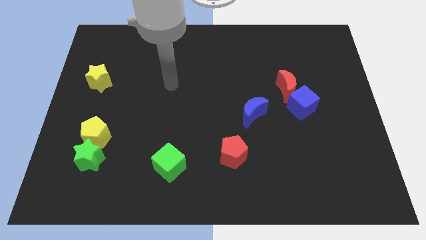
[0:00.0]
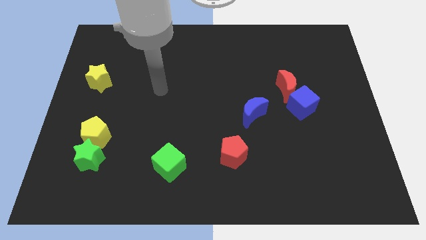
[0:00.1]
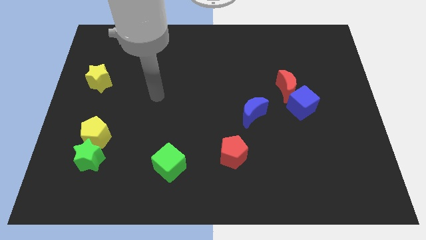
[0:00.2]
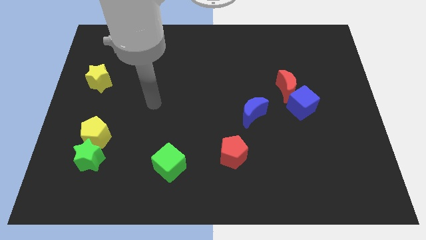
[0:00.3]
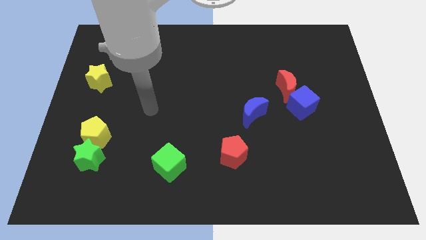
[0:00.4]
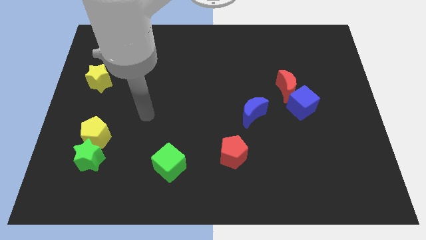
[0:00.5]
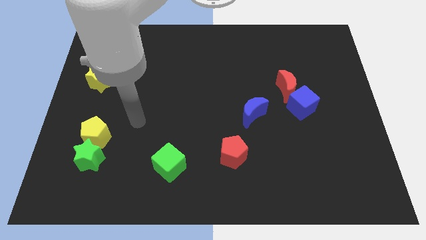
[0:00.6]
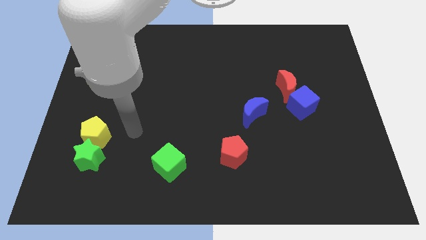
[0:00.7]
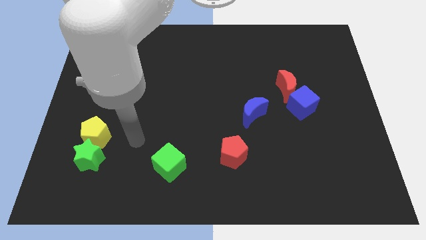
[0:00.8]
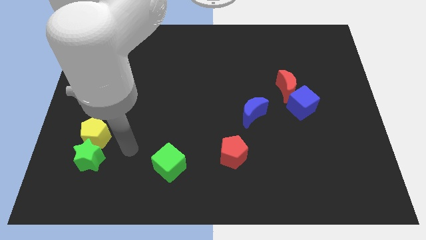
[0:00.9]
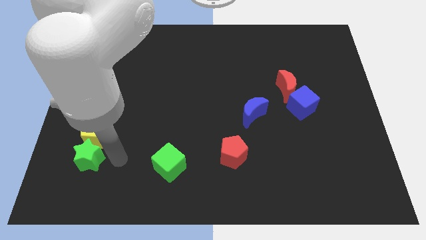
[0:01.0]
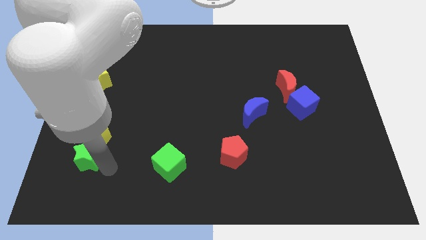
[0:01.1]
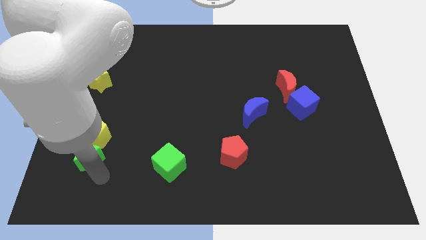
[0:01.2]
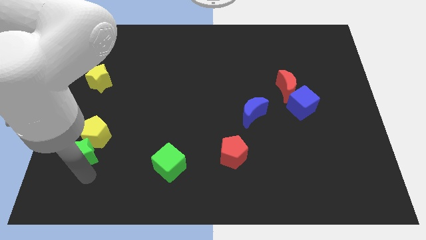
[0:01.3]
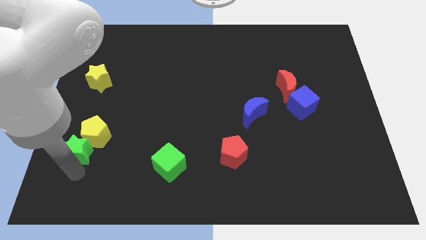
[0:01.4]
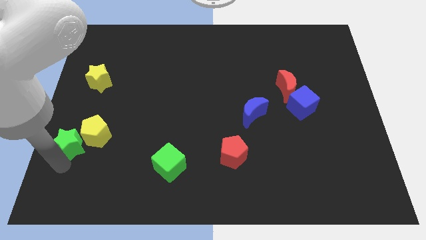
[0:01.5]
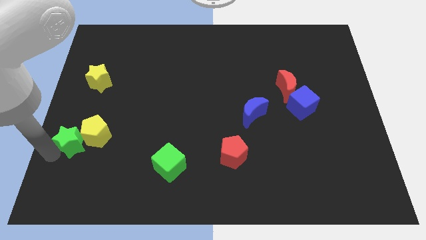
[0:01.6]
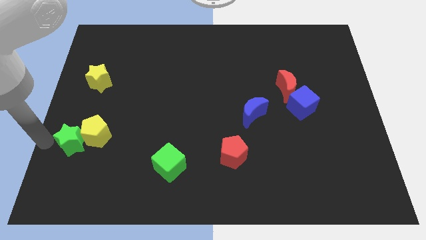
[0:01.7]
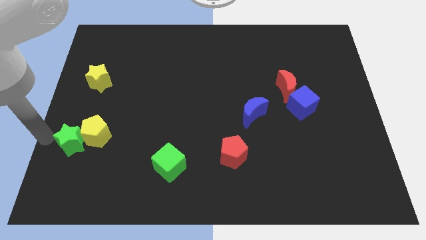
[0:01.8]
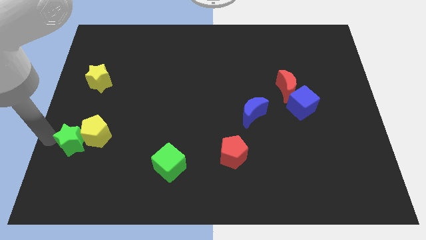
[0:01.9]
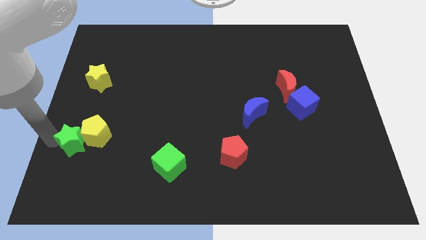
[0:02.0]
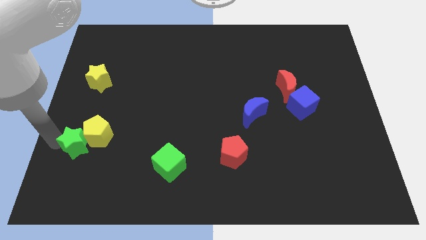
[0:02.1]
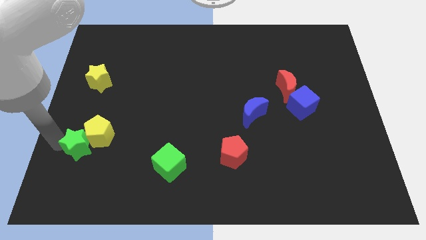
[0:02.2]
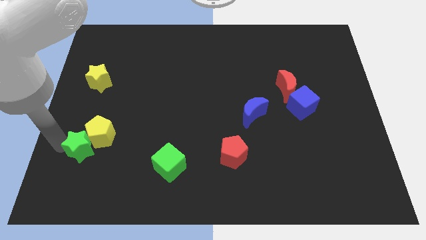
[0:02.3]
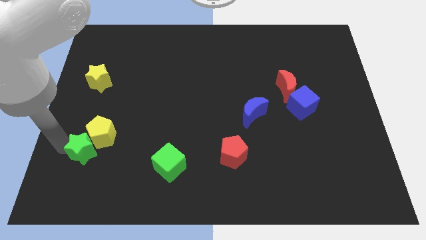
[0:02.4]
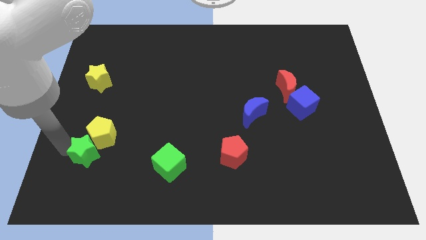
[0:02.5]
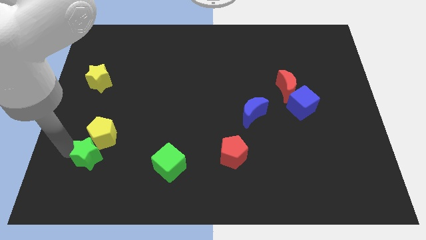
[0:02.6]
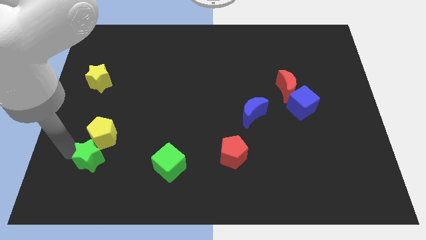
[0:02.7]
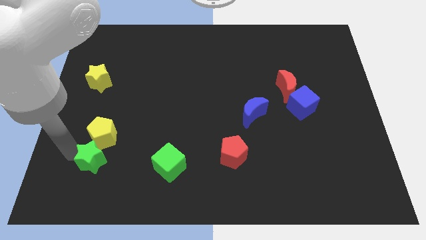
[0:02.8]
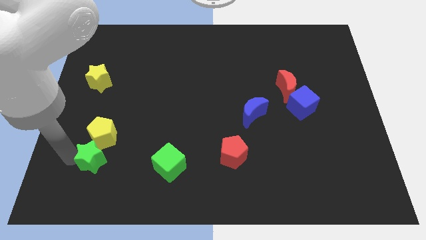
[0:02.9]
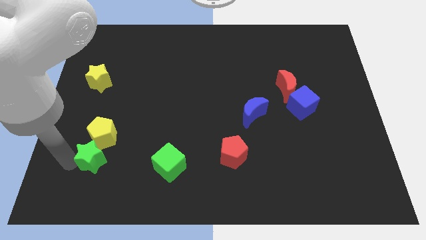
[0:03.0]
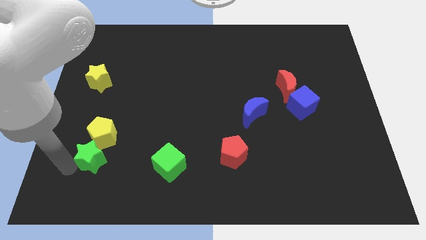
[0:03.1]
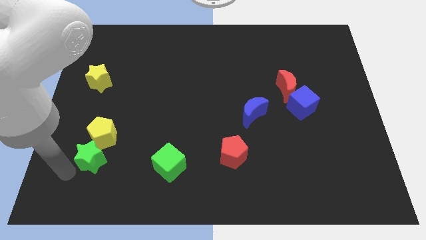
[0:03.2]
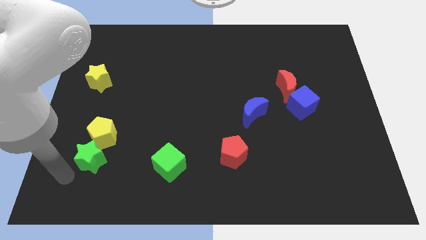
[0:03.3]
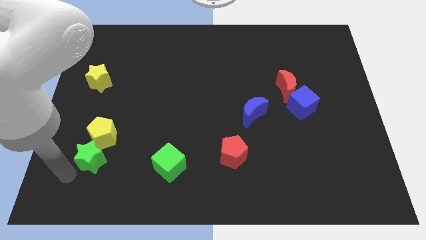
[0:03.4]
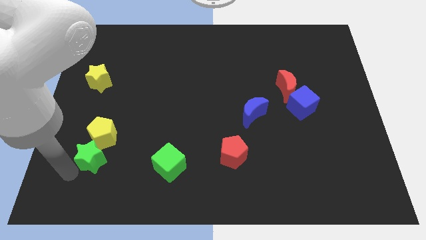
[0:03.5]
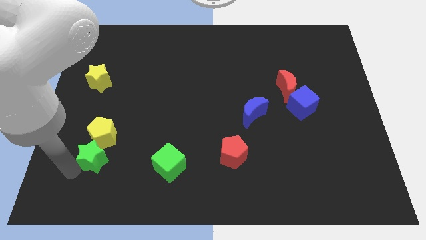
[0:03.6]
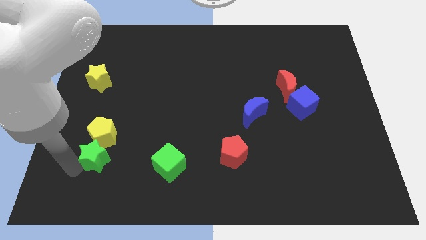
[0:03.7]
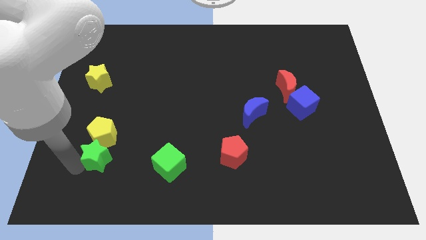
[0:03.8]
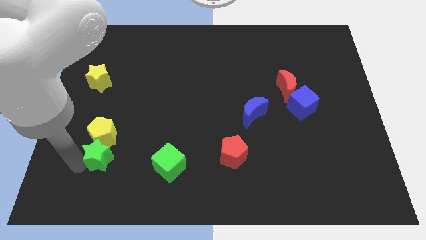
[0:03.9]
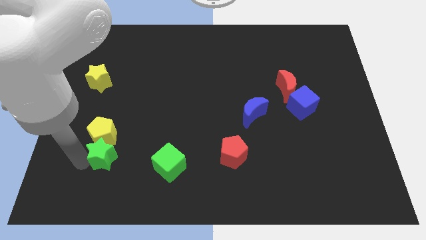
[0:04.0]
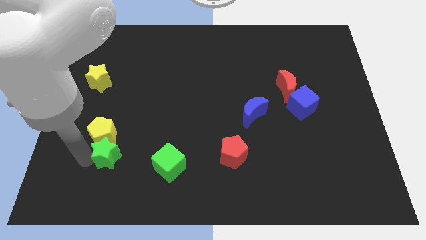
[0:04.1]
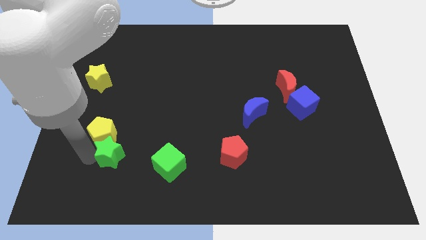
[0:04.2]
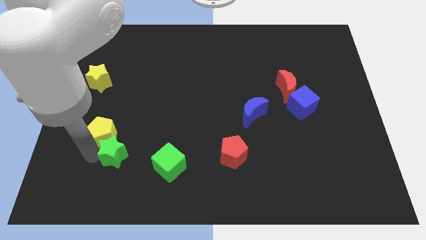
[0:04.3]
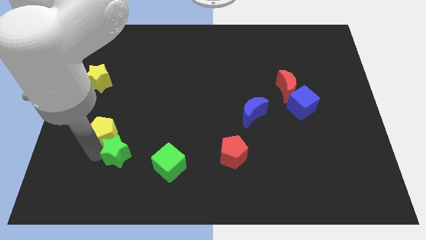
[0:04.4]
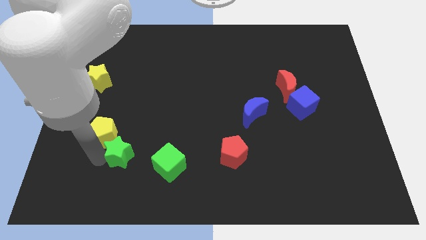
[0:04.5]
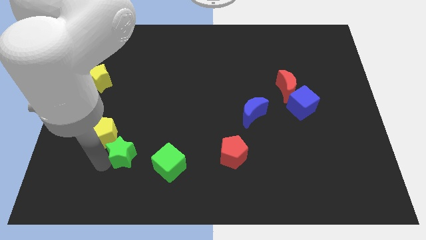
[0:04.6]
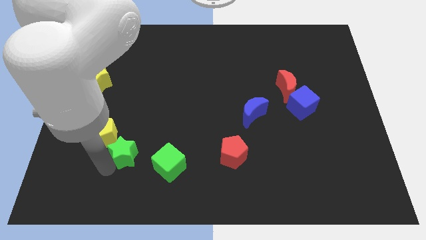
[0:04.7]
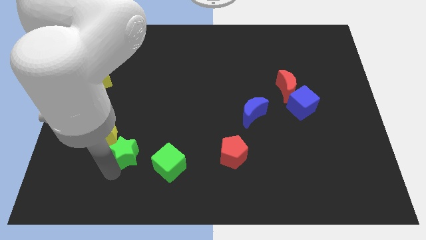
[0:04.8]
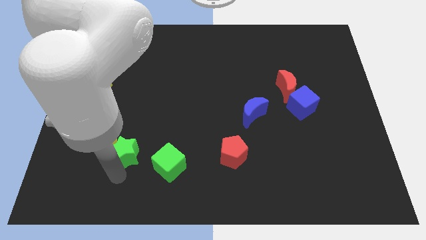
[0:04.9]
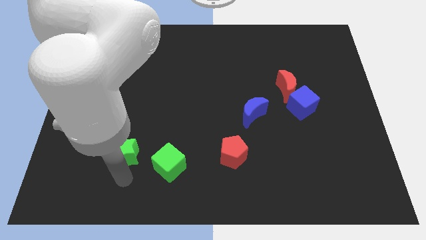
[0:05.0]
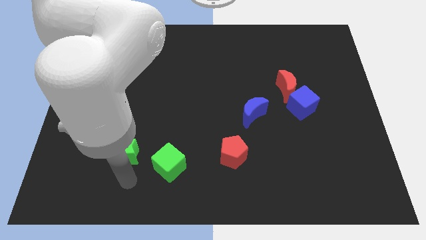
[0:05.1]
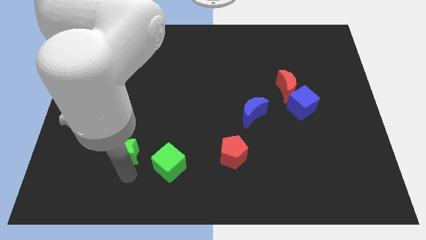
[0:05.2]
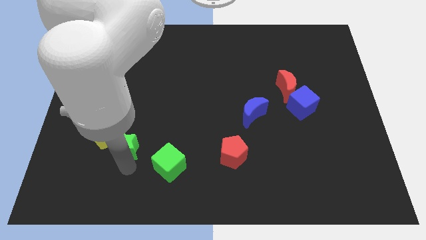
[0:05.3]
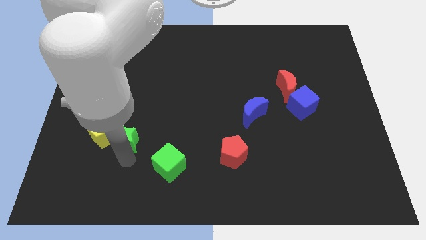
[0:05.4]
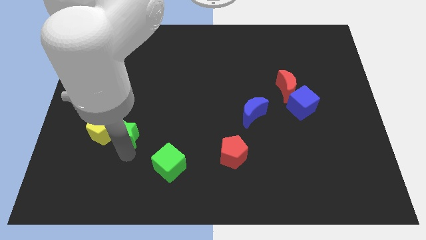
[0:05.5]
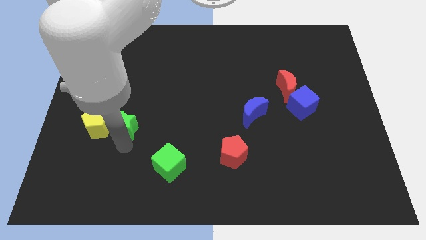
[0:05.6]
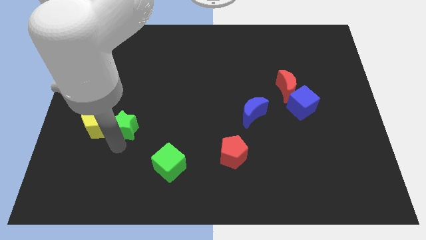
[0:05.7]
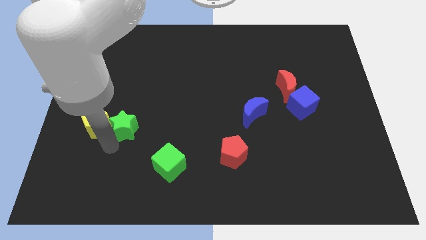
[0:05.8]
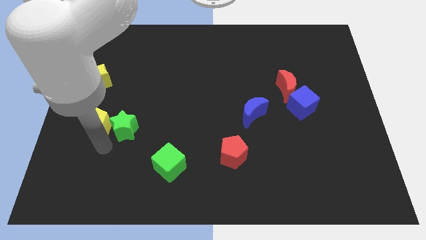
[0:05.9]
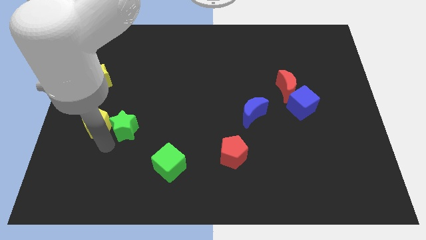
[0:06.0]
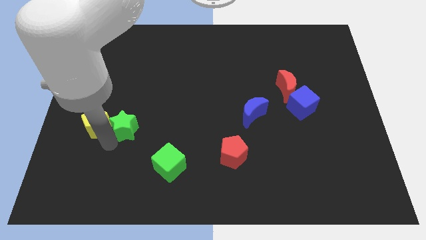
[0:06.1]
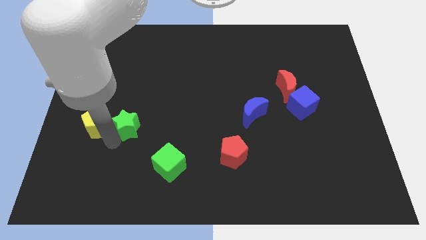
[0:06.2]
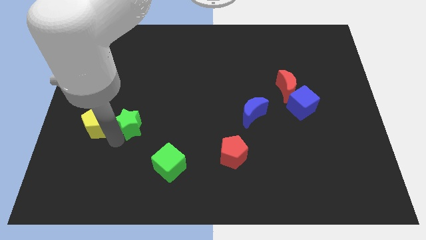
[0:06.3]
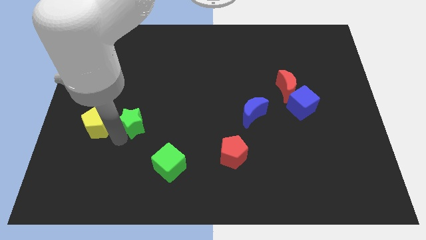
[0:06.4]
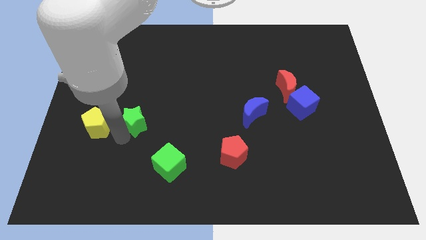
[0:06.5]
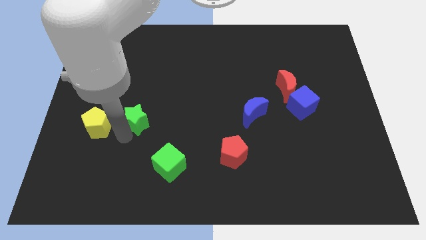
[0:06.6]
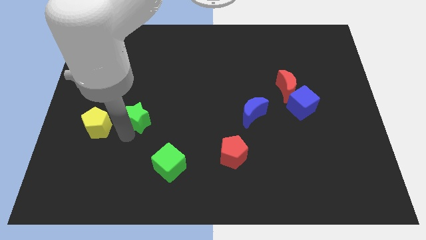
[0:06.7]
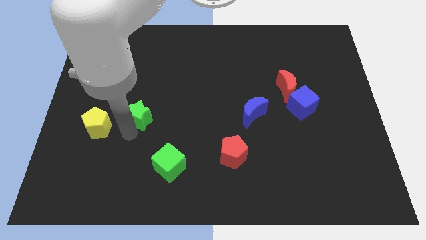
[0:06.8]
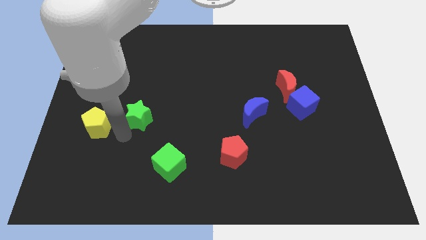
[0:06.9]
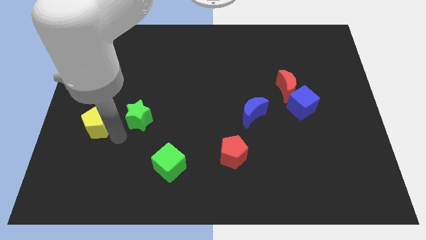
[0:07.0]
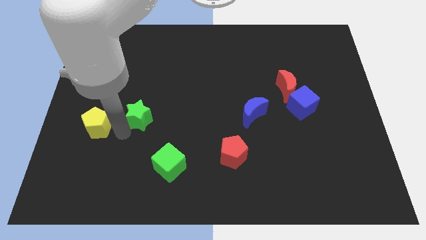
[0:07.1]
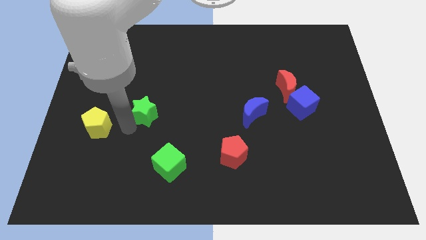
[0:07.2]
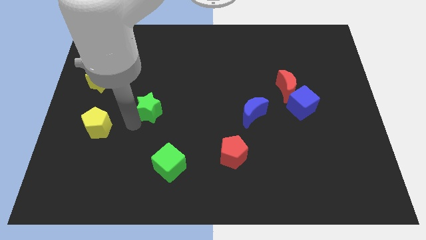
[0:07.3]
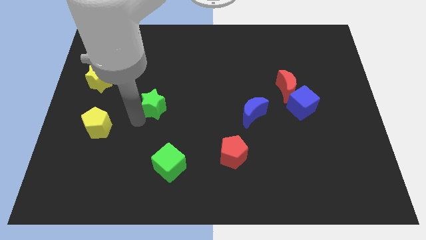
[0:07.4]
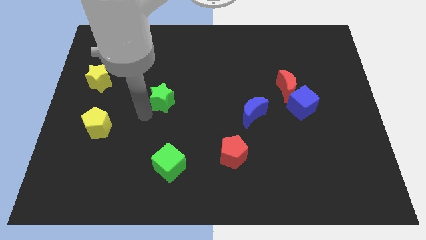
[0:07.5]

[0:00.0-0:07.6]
push the green star up and right diagonally

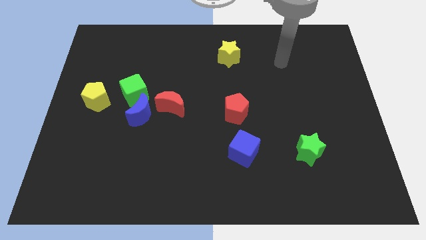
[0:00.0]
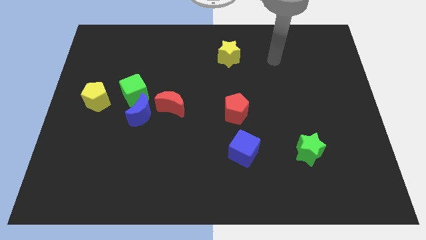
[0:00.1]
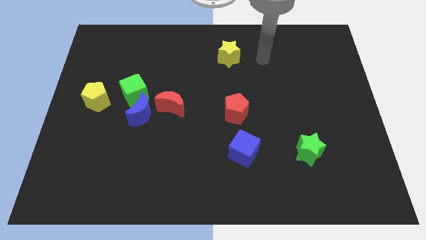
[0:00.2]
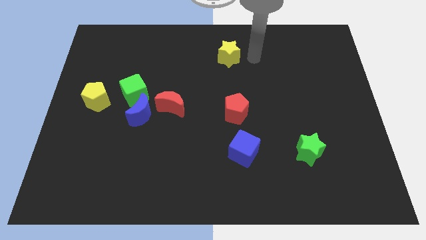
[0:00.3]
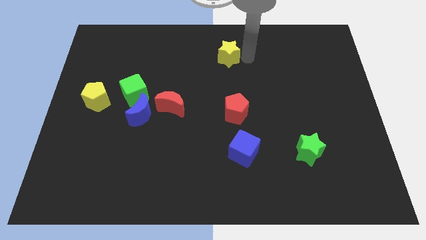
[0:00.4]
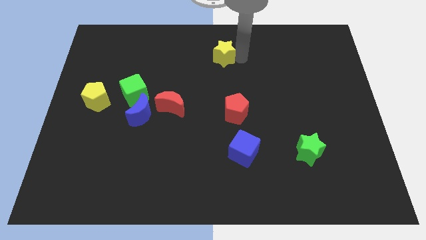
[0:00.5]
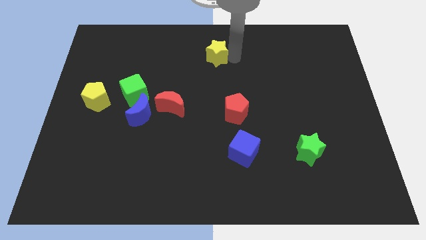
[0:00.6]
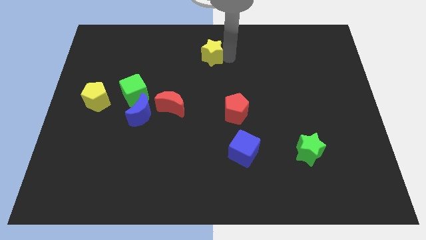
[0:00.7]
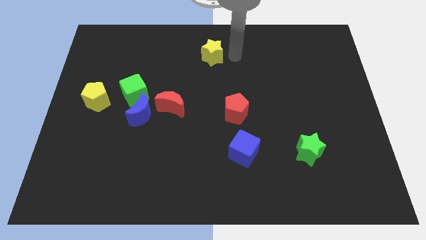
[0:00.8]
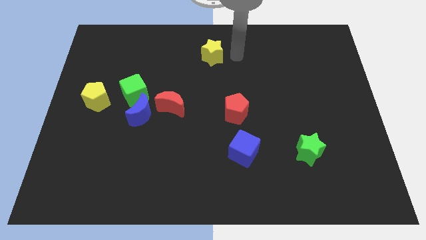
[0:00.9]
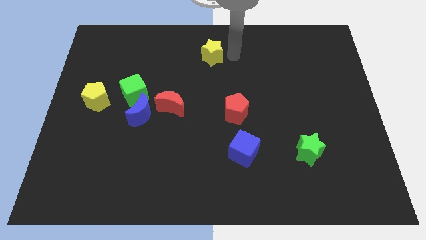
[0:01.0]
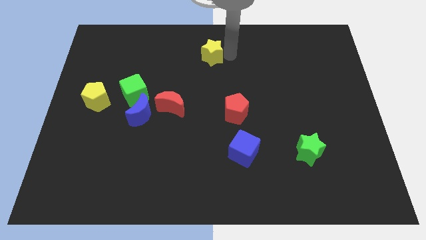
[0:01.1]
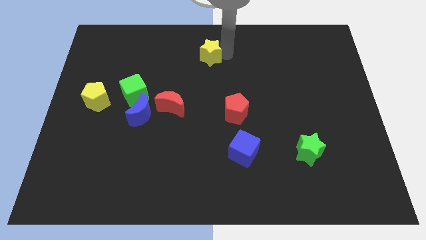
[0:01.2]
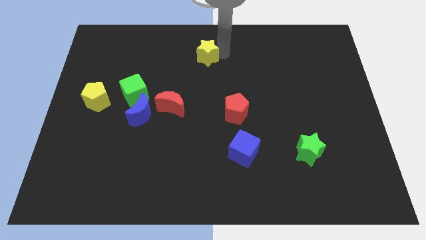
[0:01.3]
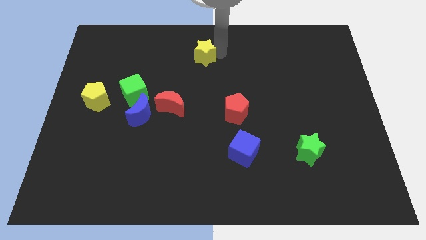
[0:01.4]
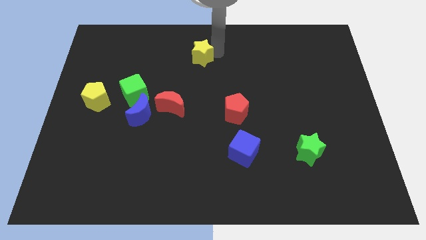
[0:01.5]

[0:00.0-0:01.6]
push the yellow star left a little
